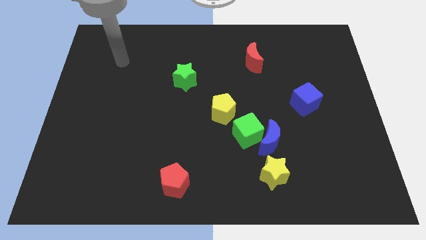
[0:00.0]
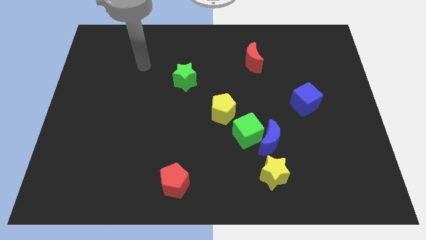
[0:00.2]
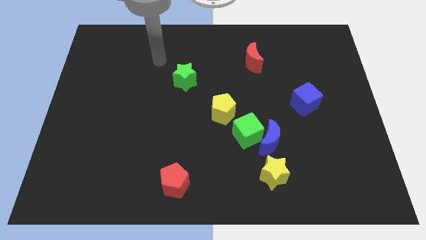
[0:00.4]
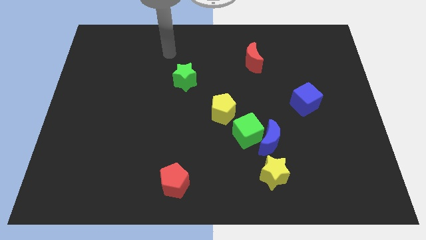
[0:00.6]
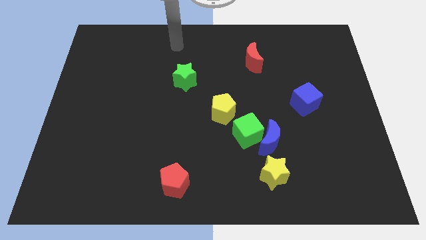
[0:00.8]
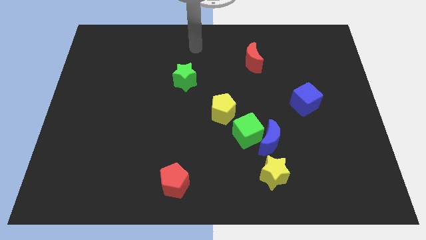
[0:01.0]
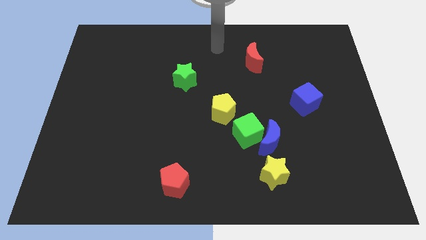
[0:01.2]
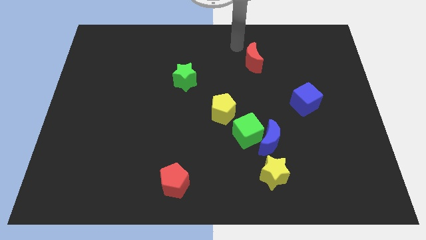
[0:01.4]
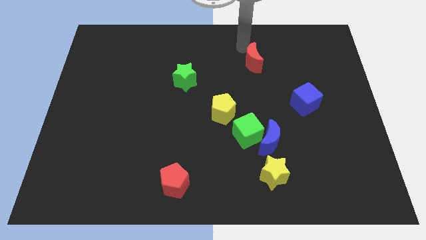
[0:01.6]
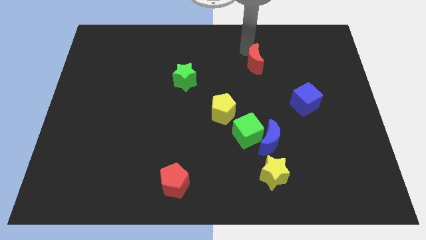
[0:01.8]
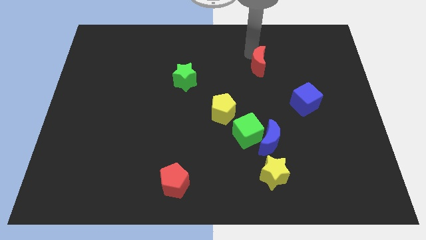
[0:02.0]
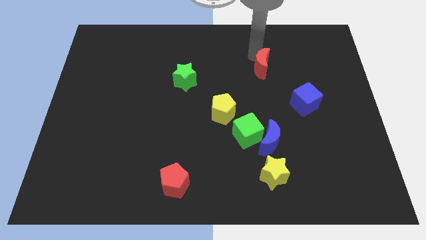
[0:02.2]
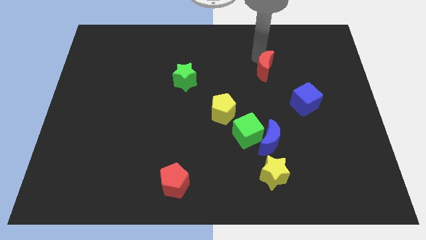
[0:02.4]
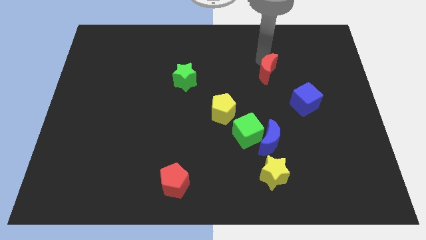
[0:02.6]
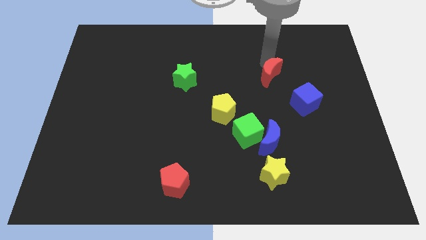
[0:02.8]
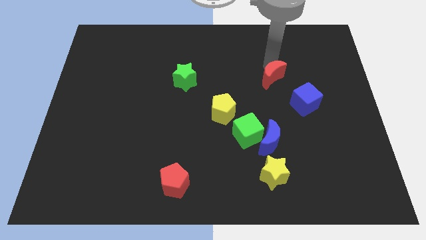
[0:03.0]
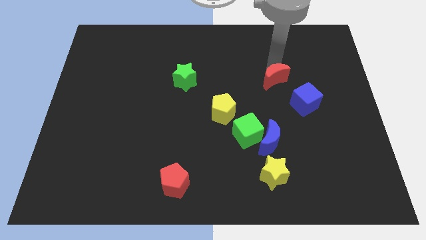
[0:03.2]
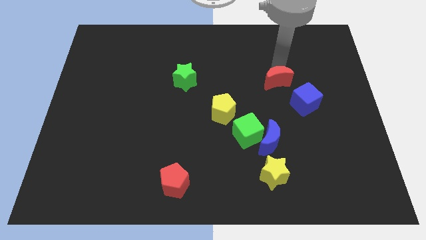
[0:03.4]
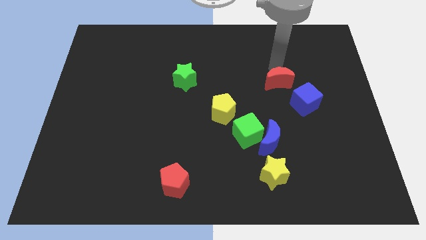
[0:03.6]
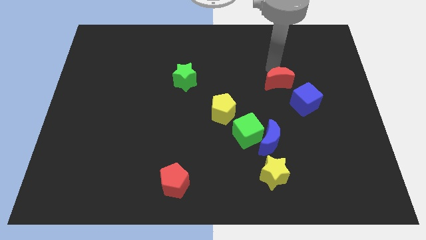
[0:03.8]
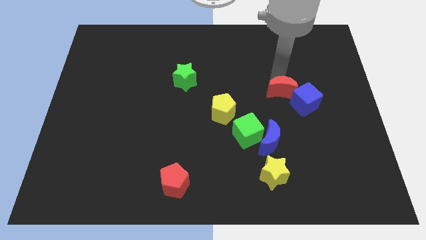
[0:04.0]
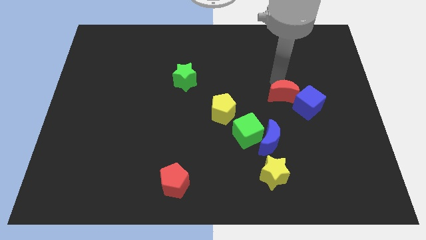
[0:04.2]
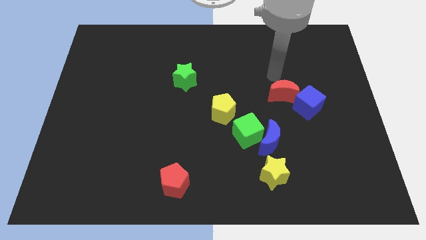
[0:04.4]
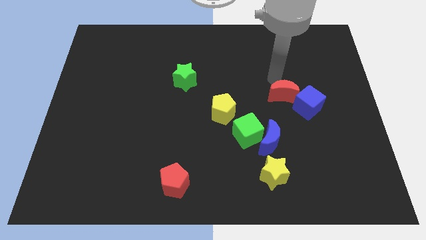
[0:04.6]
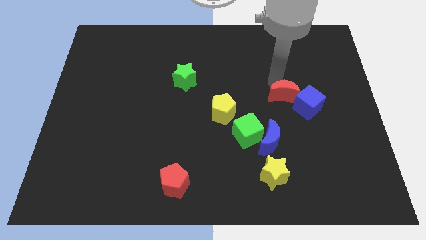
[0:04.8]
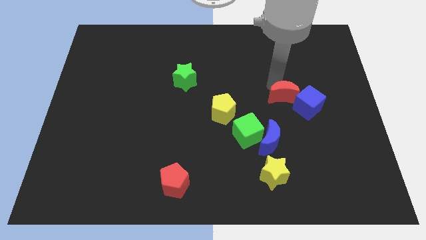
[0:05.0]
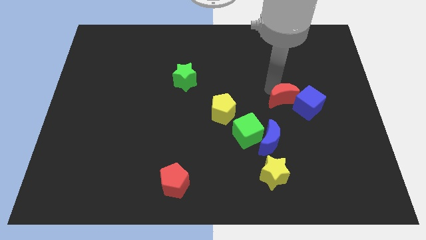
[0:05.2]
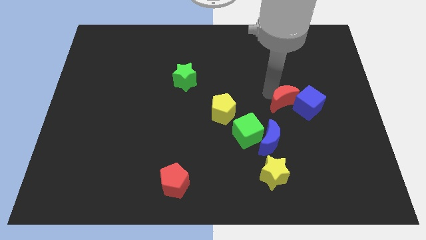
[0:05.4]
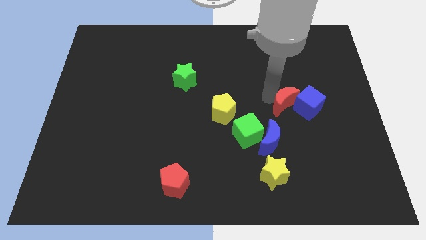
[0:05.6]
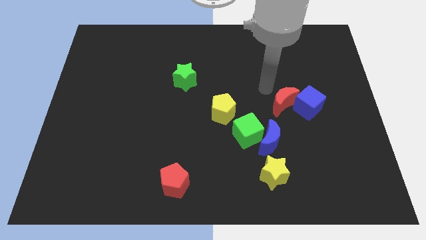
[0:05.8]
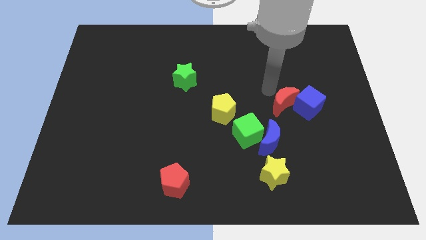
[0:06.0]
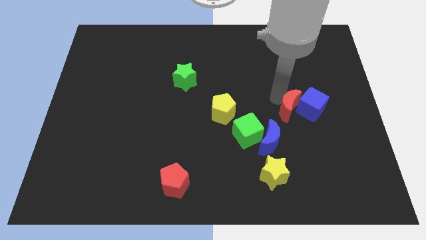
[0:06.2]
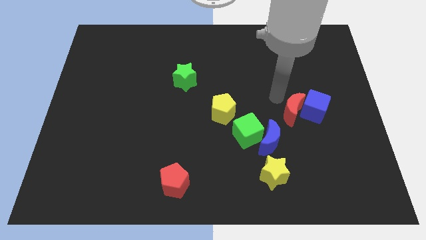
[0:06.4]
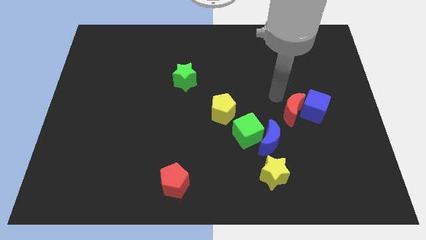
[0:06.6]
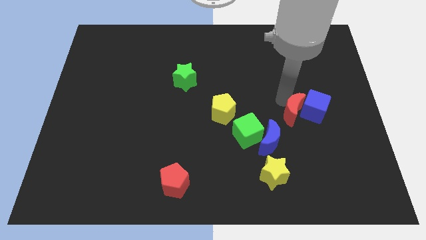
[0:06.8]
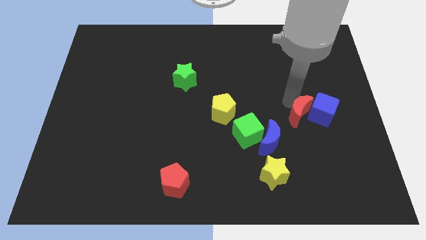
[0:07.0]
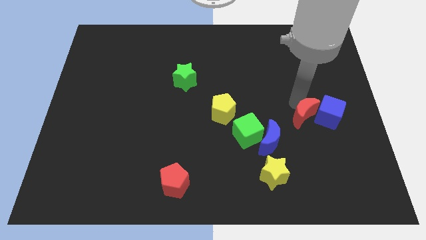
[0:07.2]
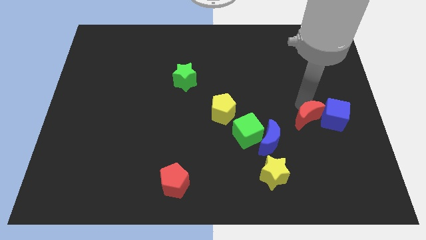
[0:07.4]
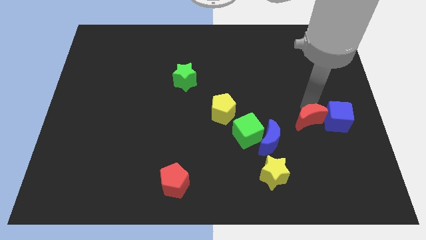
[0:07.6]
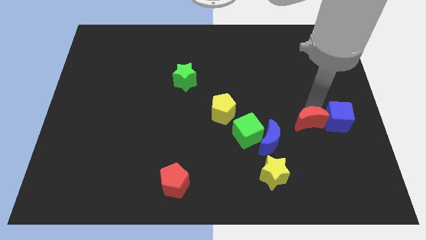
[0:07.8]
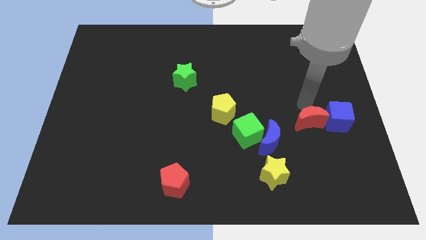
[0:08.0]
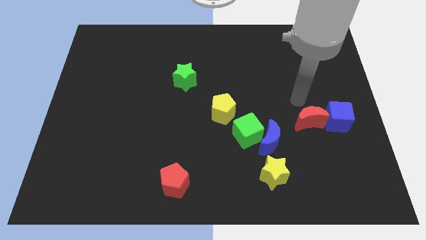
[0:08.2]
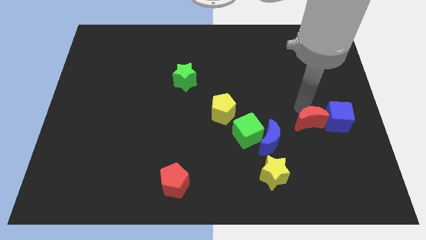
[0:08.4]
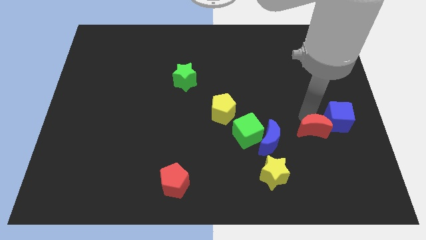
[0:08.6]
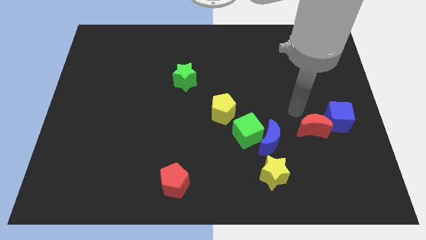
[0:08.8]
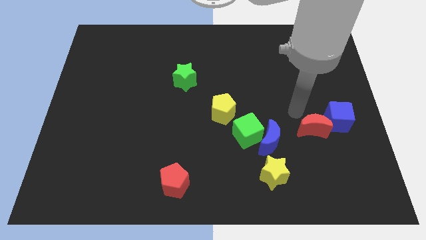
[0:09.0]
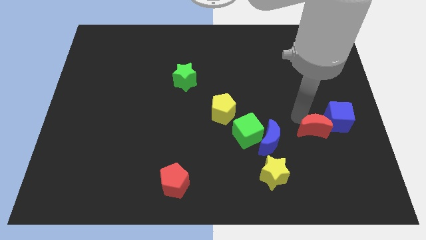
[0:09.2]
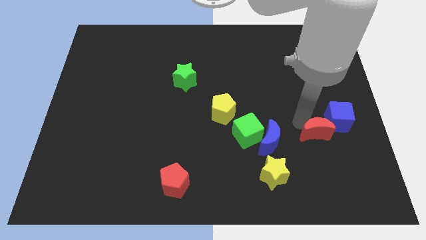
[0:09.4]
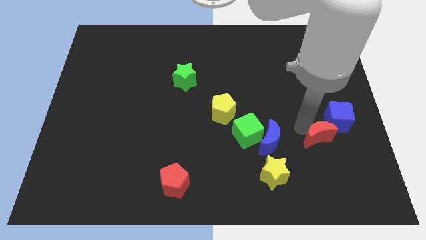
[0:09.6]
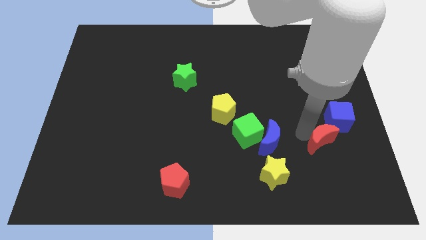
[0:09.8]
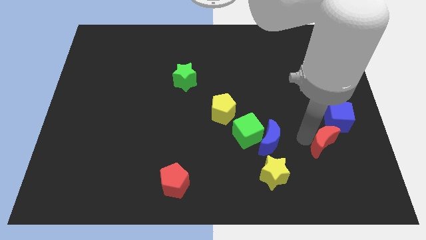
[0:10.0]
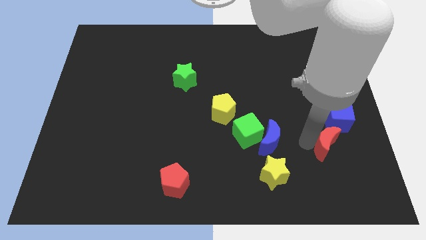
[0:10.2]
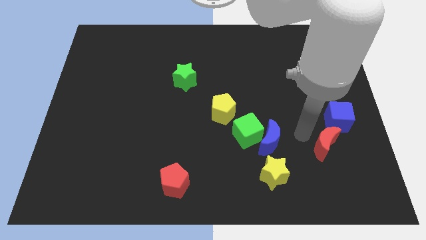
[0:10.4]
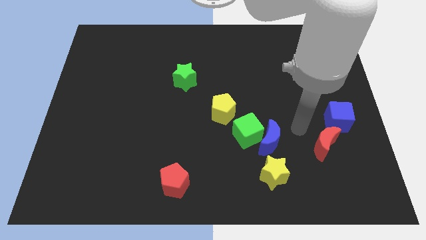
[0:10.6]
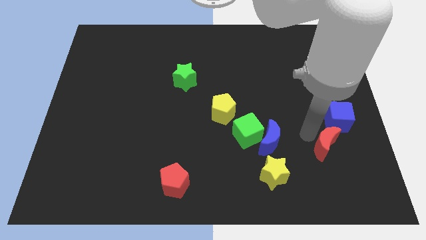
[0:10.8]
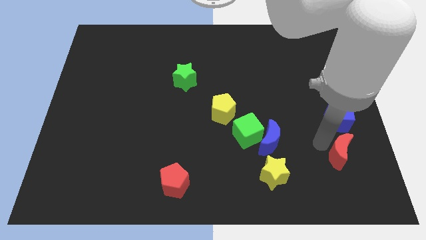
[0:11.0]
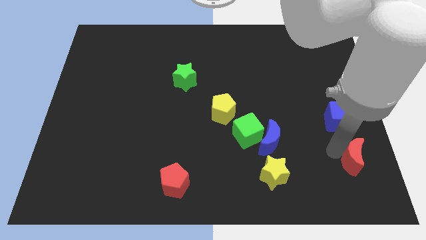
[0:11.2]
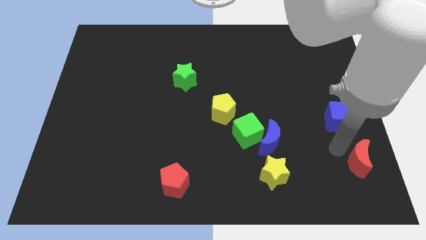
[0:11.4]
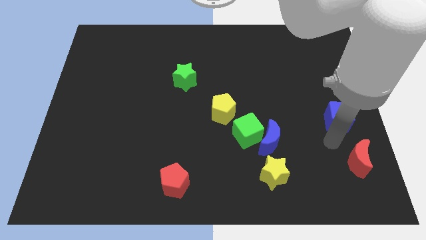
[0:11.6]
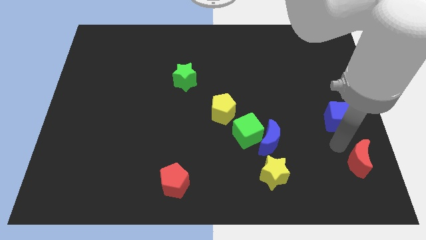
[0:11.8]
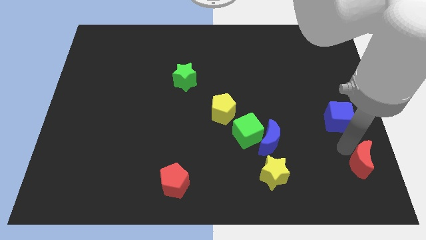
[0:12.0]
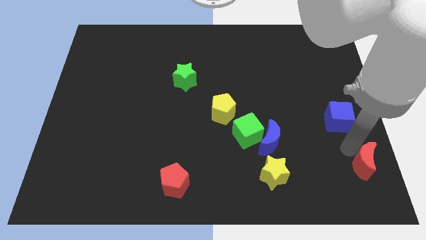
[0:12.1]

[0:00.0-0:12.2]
move the red moon to the lower right corner

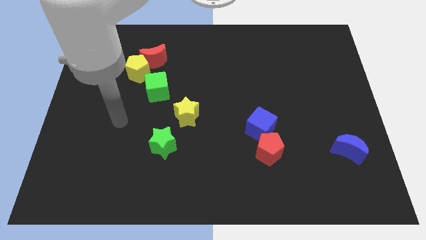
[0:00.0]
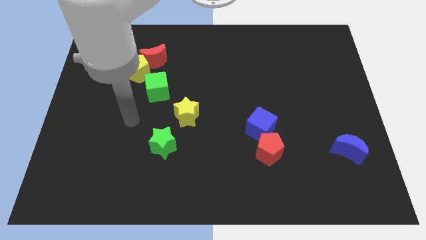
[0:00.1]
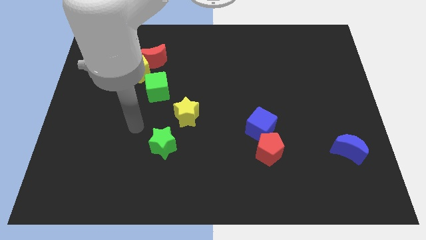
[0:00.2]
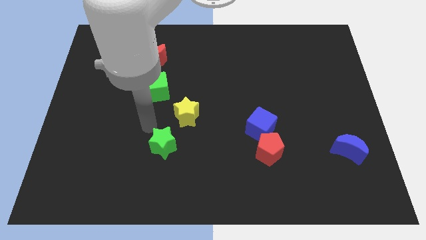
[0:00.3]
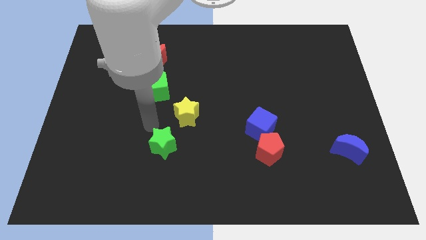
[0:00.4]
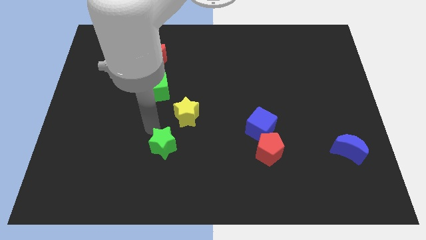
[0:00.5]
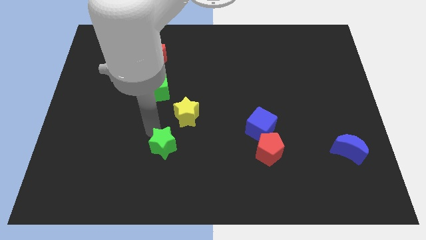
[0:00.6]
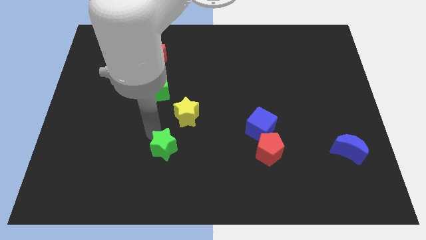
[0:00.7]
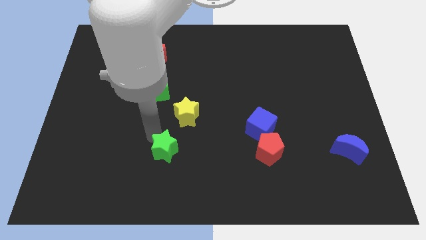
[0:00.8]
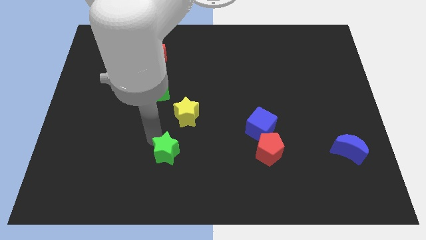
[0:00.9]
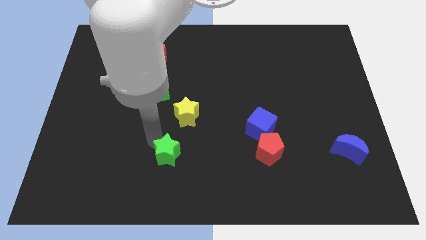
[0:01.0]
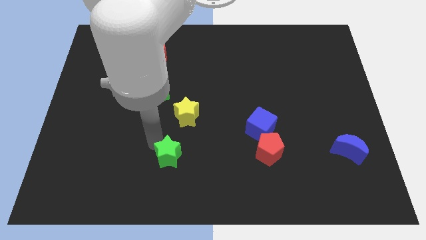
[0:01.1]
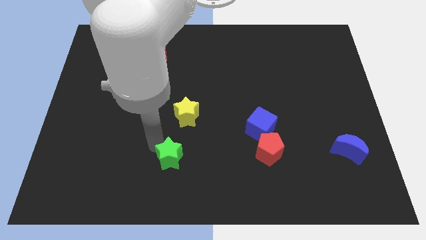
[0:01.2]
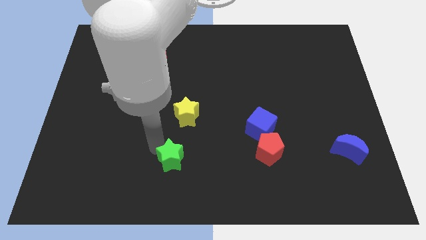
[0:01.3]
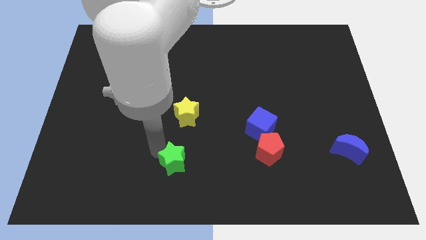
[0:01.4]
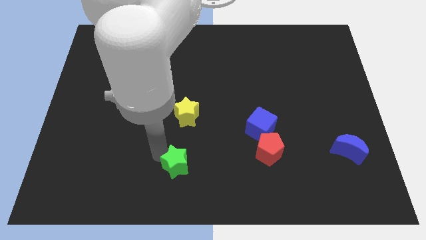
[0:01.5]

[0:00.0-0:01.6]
slide the green star to the bottom
